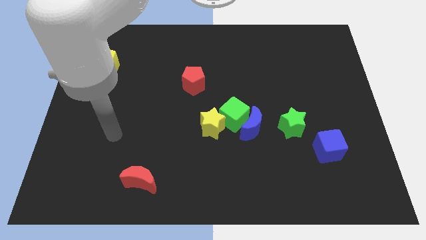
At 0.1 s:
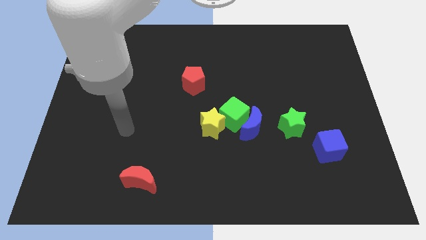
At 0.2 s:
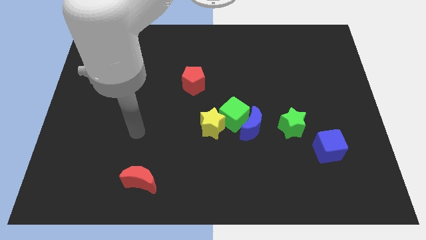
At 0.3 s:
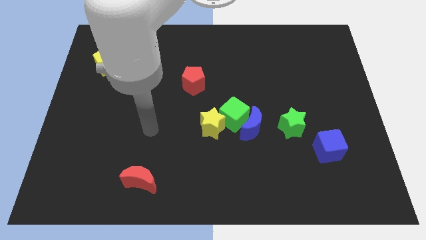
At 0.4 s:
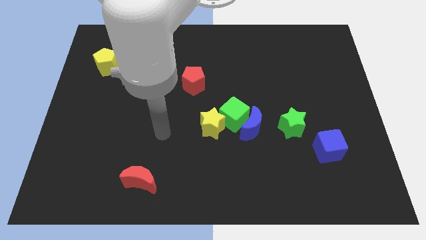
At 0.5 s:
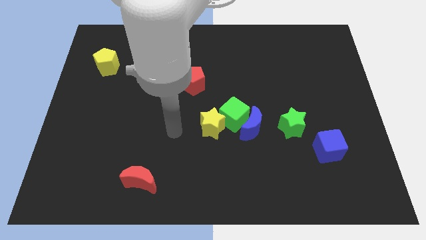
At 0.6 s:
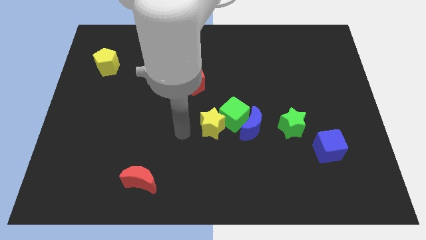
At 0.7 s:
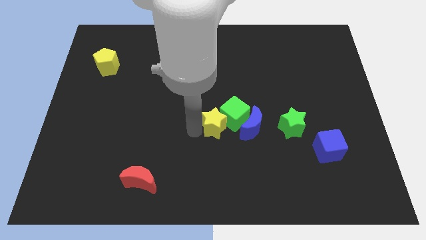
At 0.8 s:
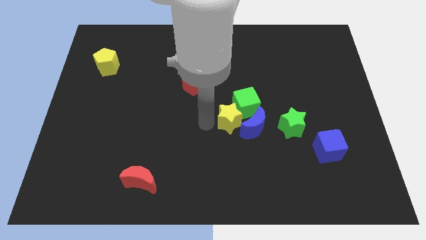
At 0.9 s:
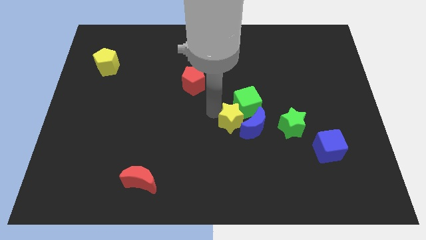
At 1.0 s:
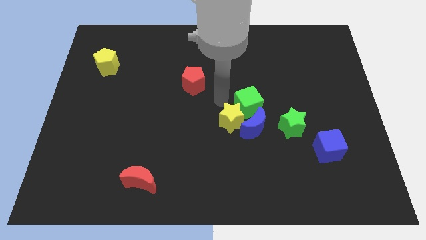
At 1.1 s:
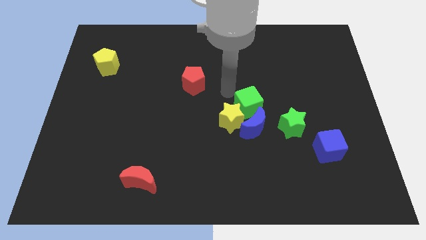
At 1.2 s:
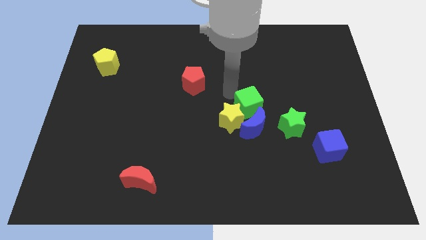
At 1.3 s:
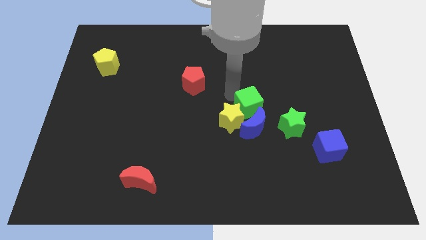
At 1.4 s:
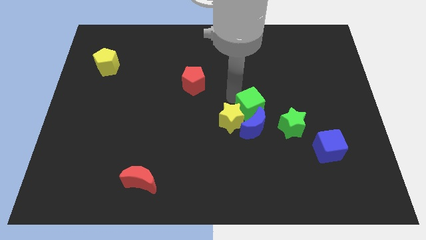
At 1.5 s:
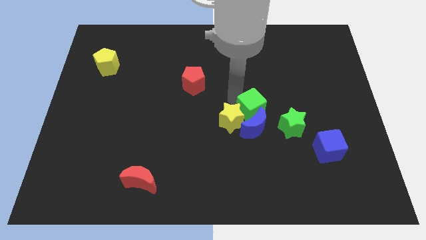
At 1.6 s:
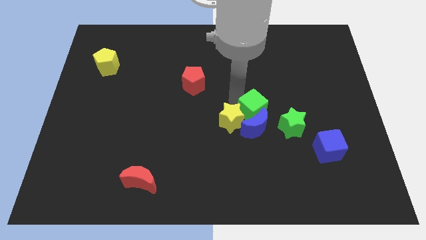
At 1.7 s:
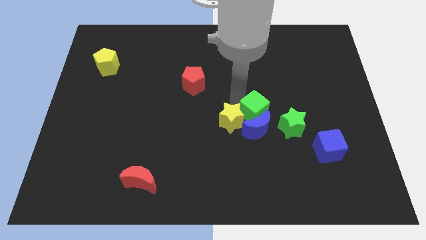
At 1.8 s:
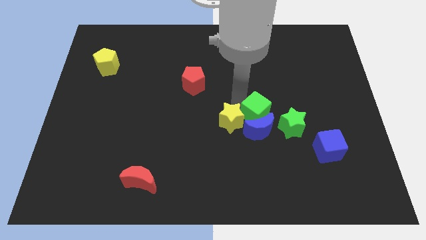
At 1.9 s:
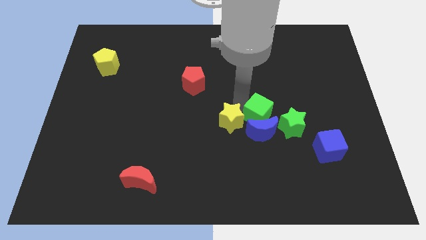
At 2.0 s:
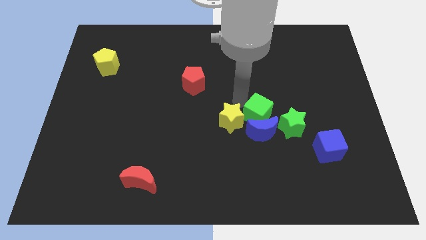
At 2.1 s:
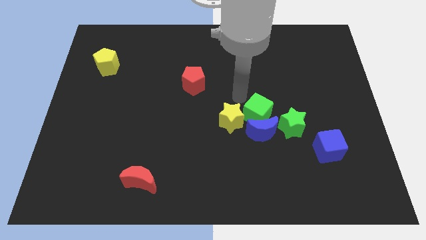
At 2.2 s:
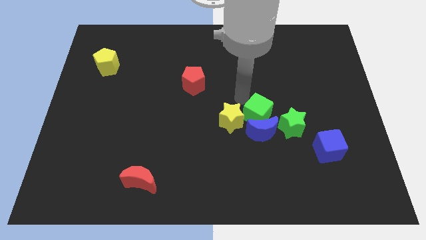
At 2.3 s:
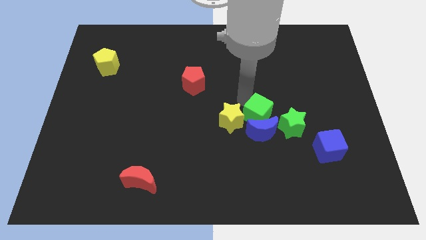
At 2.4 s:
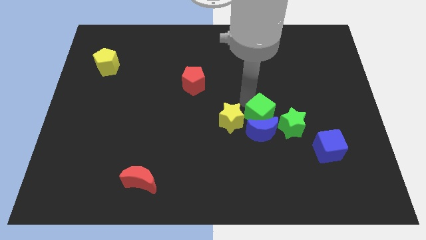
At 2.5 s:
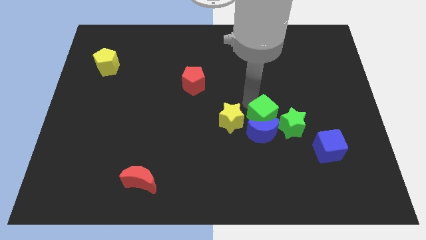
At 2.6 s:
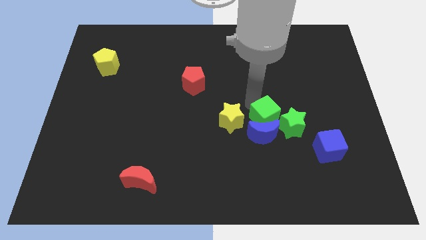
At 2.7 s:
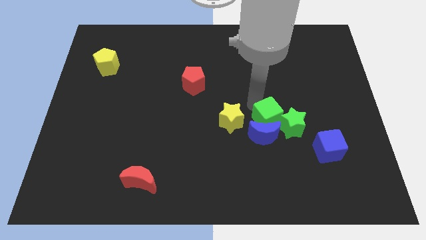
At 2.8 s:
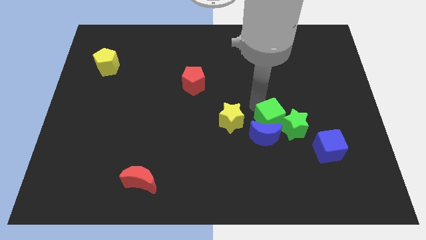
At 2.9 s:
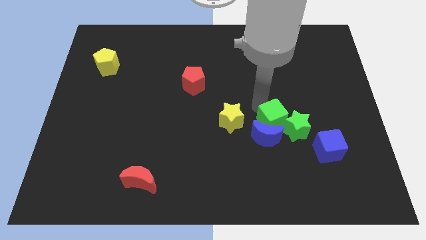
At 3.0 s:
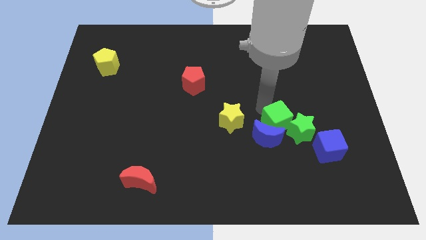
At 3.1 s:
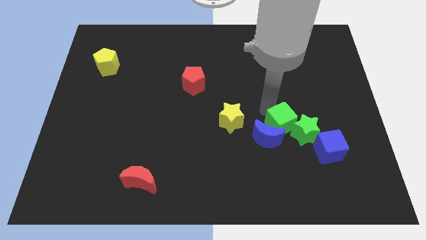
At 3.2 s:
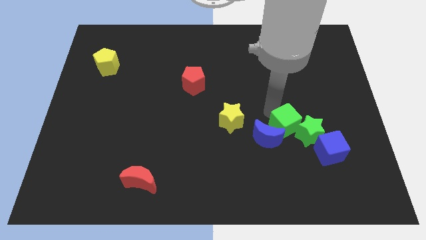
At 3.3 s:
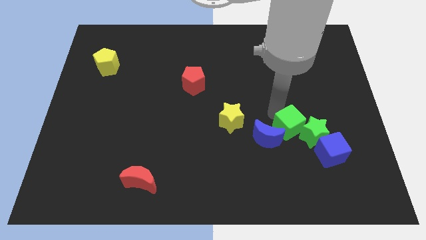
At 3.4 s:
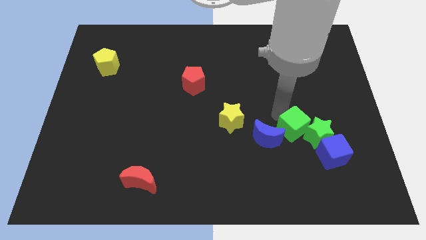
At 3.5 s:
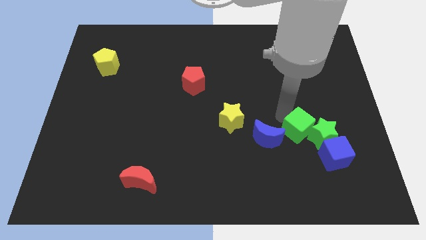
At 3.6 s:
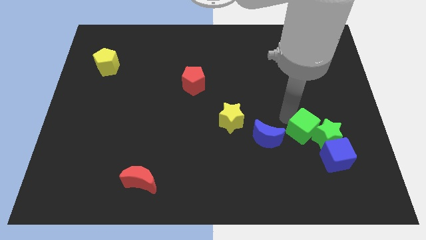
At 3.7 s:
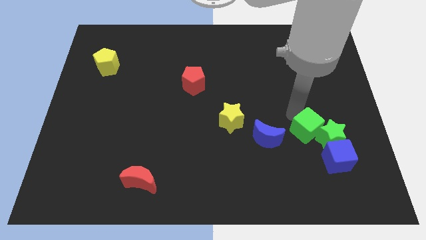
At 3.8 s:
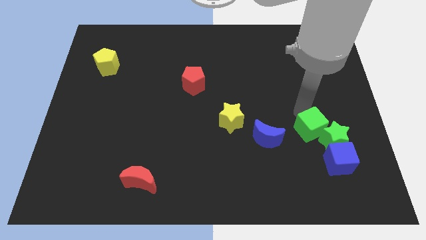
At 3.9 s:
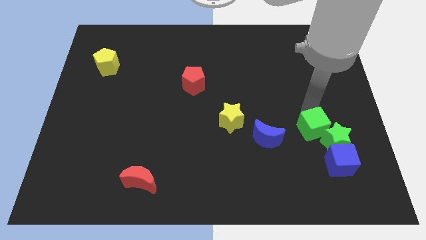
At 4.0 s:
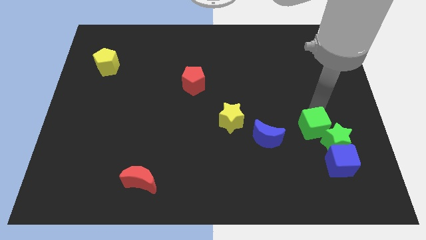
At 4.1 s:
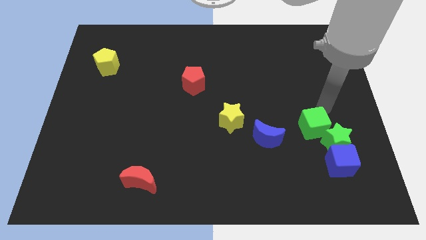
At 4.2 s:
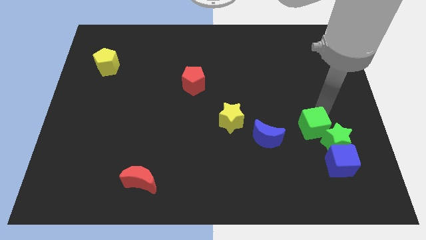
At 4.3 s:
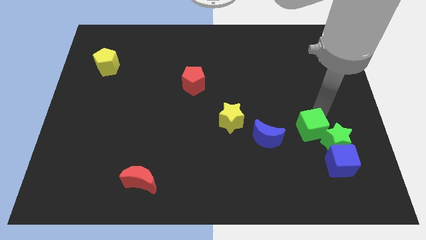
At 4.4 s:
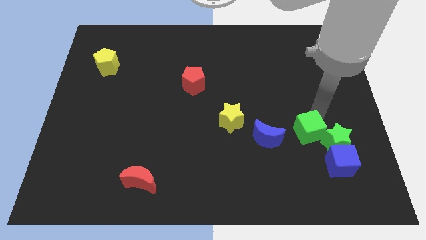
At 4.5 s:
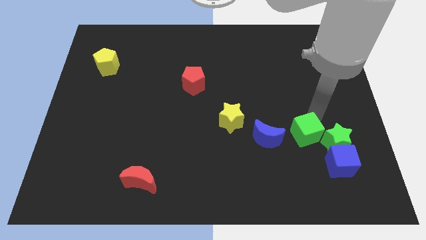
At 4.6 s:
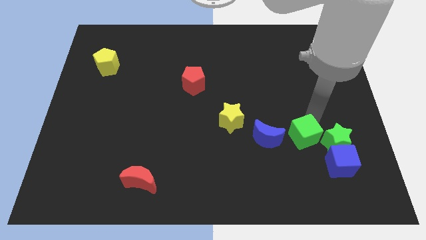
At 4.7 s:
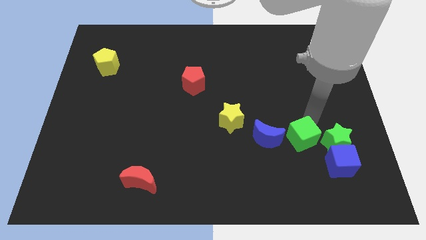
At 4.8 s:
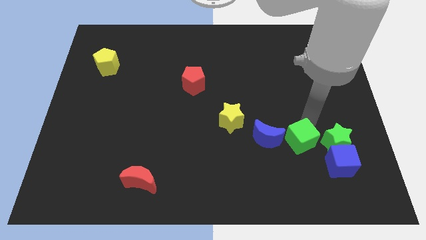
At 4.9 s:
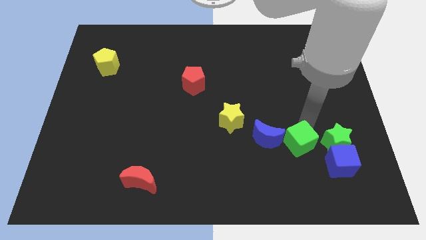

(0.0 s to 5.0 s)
put the green cube diagonally down and to the right of the blue moon

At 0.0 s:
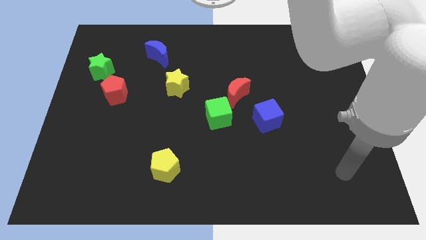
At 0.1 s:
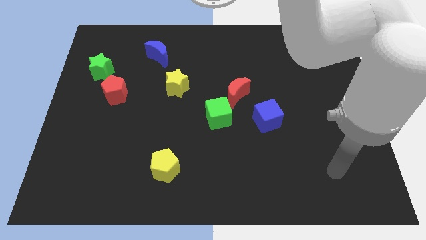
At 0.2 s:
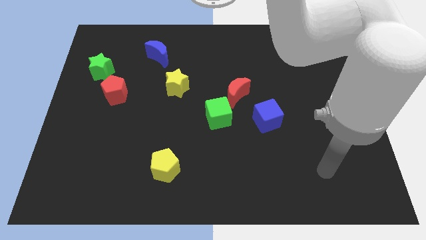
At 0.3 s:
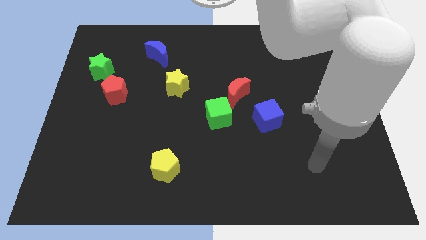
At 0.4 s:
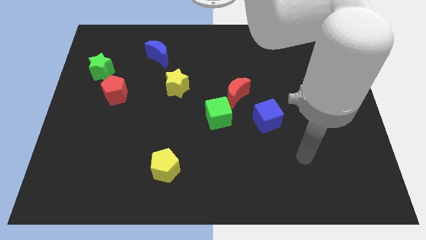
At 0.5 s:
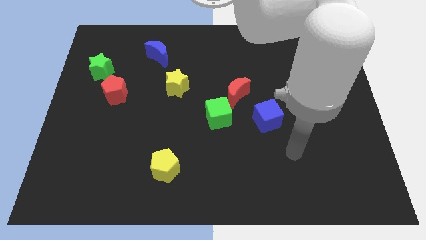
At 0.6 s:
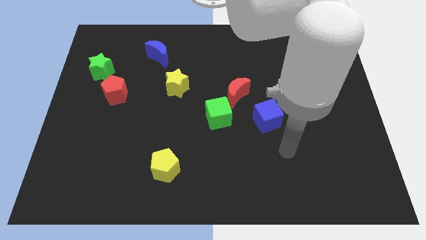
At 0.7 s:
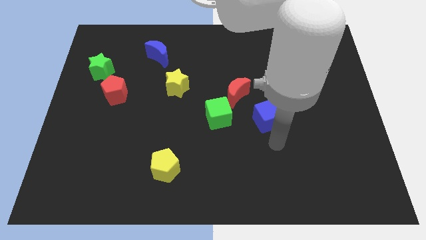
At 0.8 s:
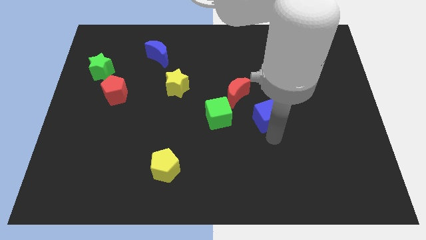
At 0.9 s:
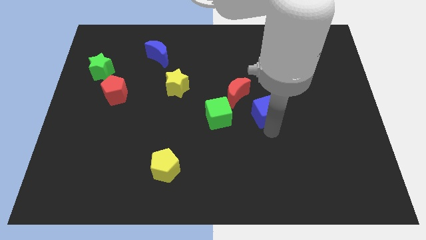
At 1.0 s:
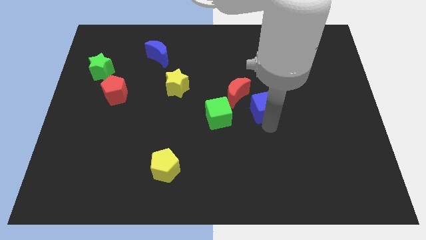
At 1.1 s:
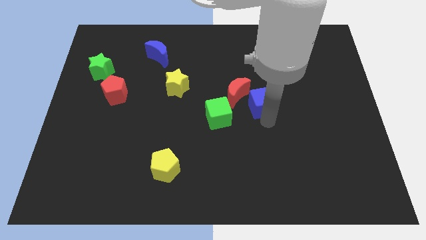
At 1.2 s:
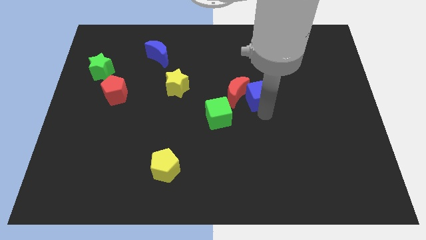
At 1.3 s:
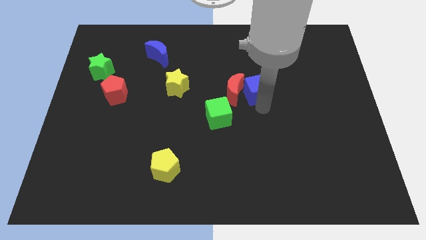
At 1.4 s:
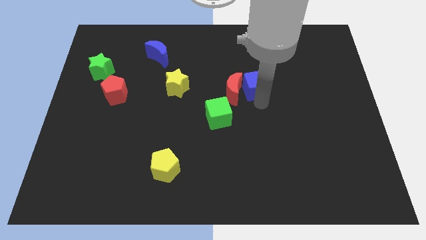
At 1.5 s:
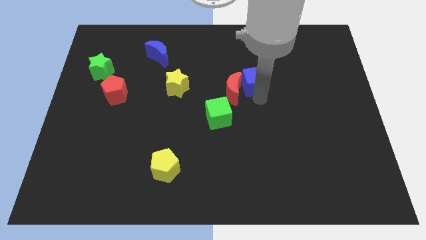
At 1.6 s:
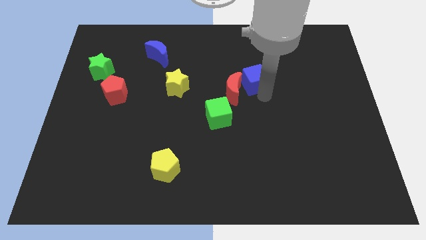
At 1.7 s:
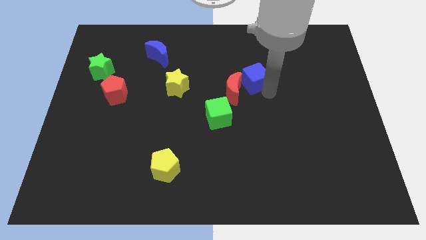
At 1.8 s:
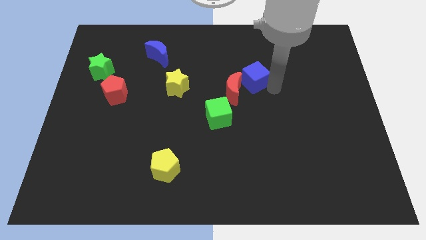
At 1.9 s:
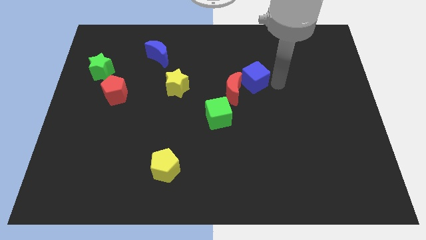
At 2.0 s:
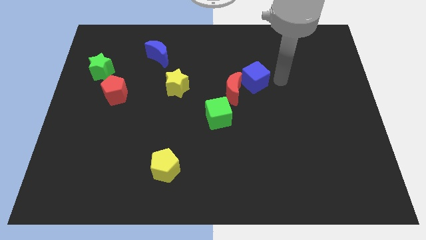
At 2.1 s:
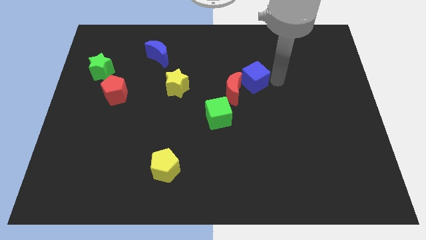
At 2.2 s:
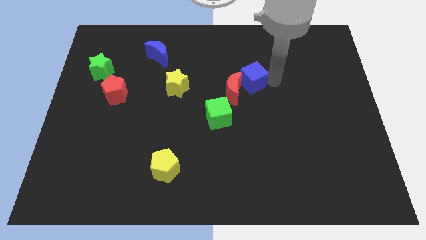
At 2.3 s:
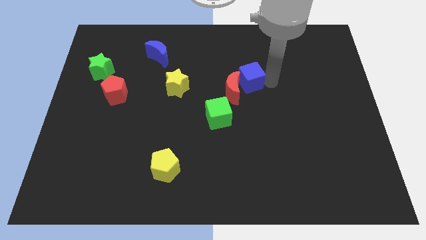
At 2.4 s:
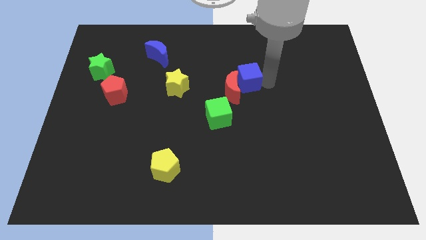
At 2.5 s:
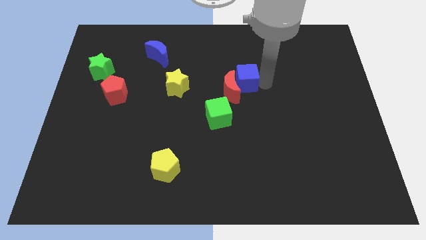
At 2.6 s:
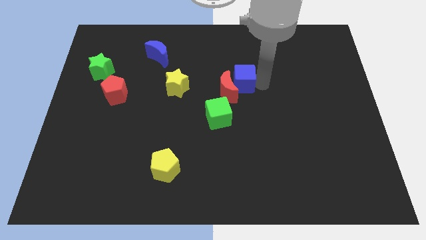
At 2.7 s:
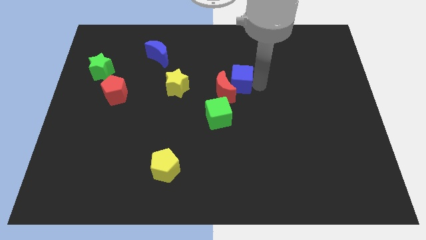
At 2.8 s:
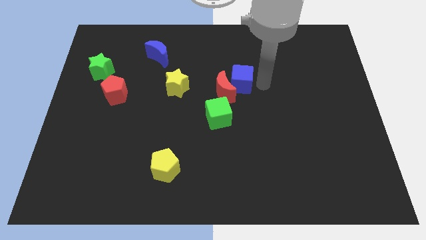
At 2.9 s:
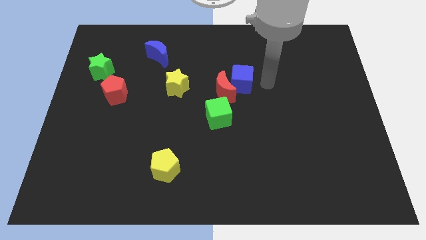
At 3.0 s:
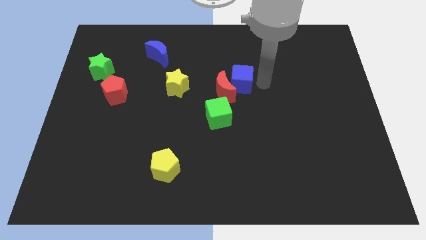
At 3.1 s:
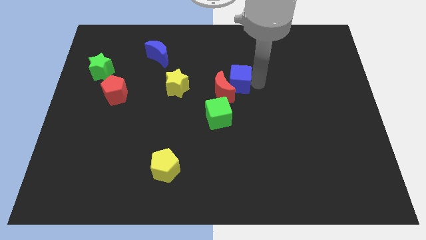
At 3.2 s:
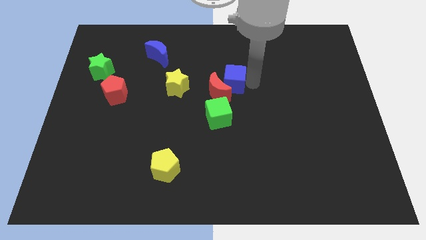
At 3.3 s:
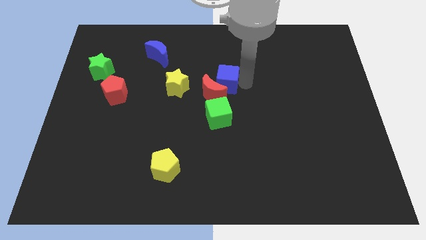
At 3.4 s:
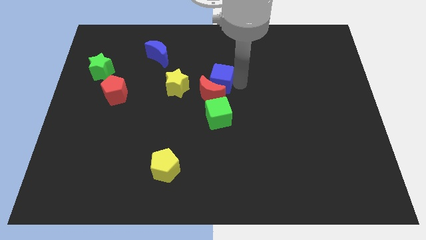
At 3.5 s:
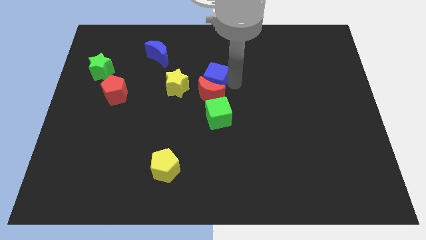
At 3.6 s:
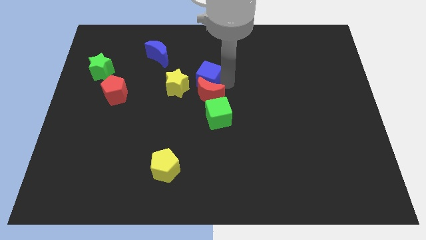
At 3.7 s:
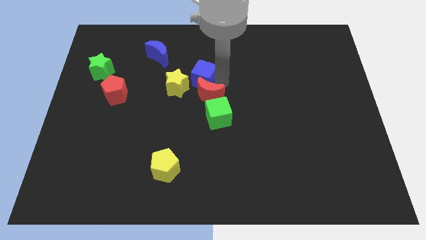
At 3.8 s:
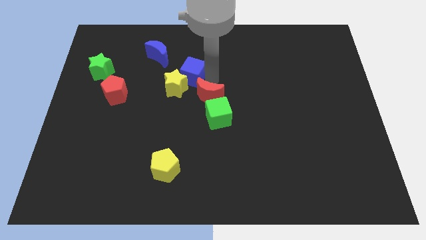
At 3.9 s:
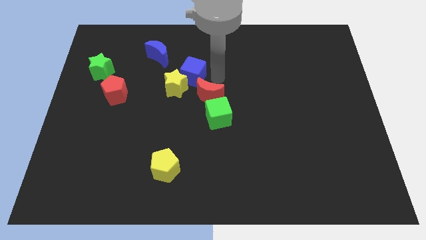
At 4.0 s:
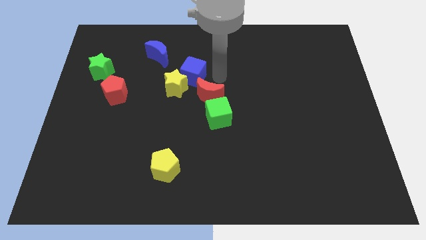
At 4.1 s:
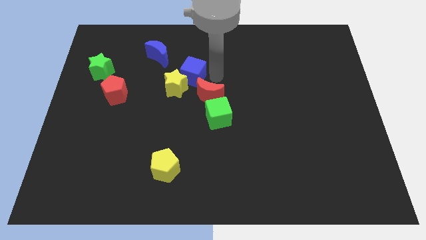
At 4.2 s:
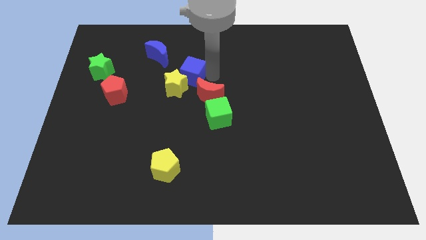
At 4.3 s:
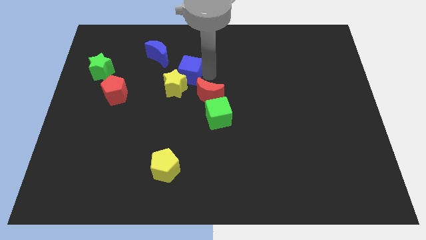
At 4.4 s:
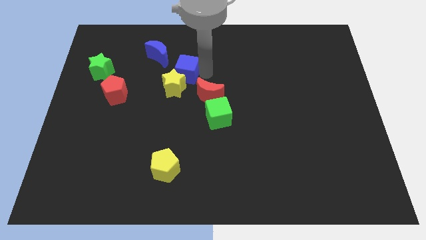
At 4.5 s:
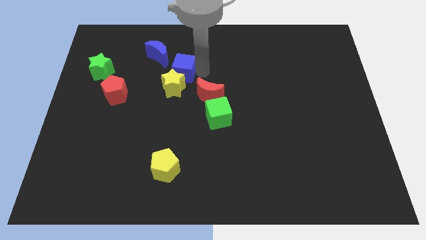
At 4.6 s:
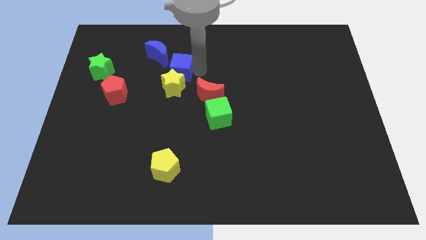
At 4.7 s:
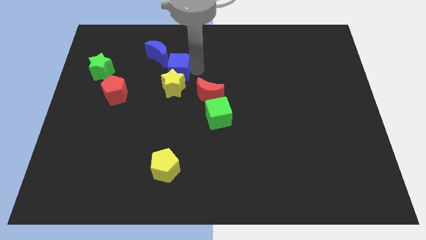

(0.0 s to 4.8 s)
slide the blue cube to the top left side of the yellow star
